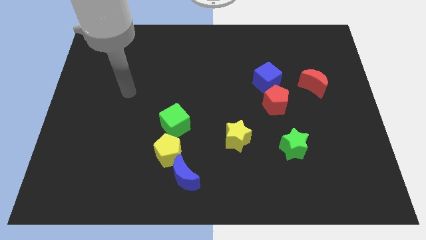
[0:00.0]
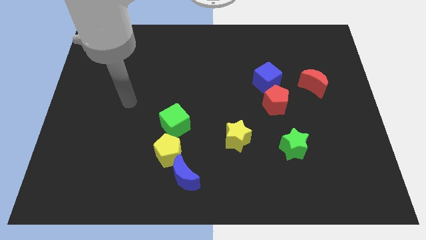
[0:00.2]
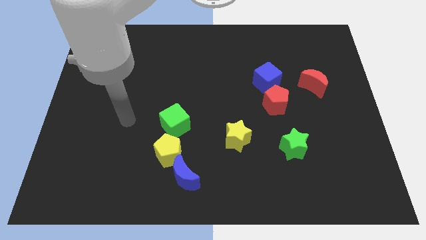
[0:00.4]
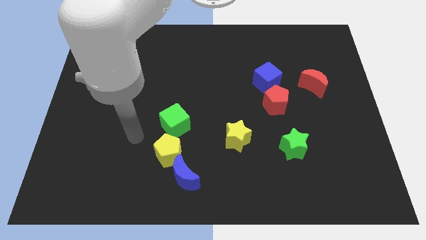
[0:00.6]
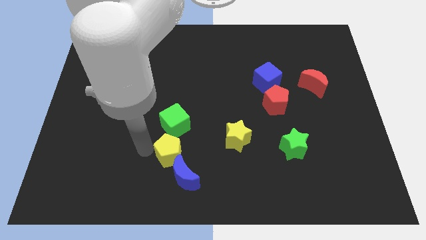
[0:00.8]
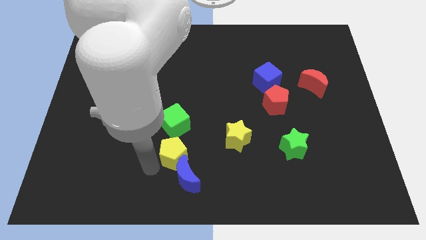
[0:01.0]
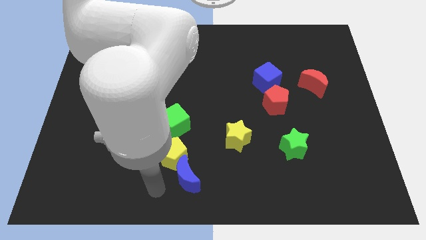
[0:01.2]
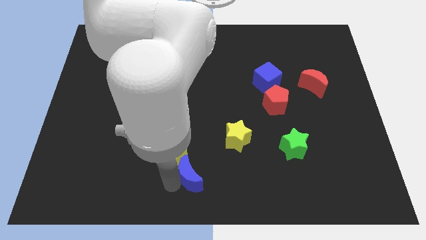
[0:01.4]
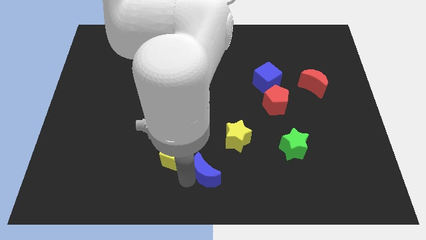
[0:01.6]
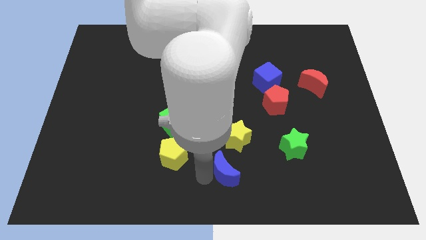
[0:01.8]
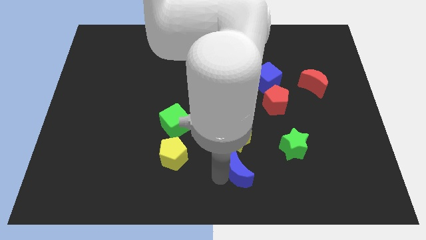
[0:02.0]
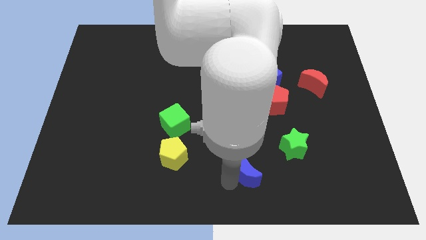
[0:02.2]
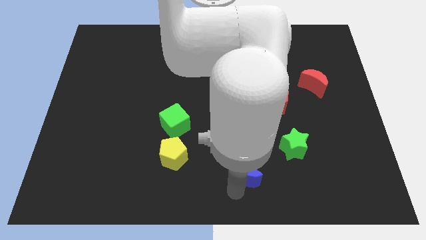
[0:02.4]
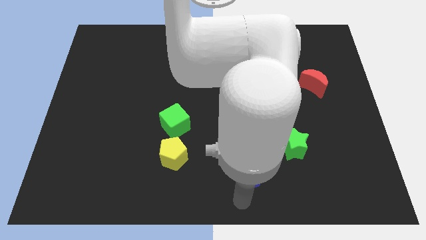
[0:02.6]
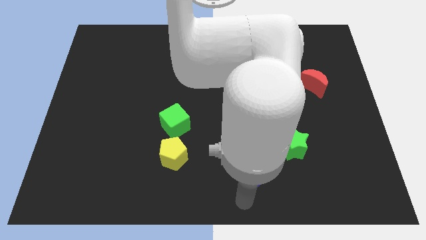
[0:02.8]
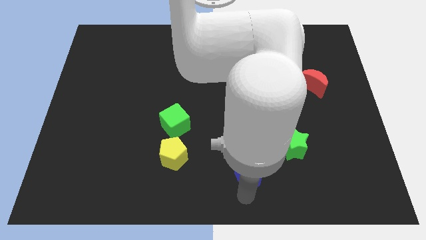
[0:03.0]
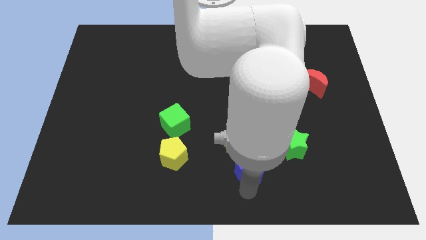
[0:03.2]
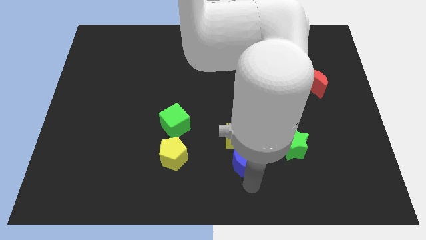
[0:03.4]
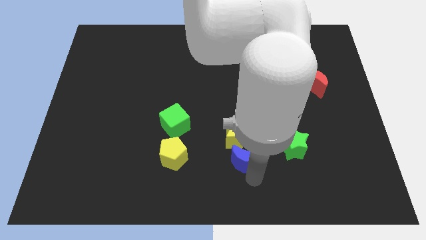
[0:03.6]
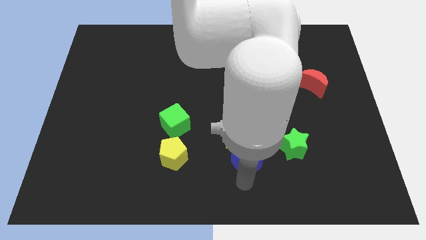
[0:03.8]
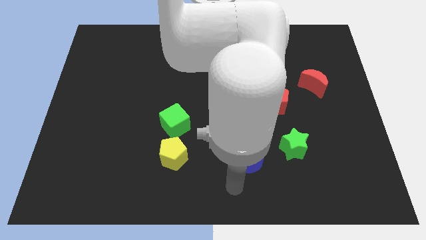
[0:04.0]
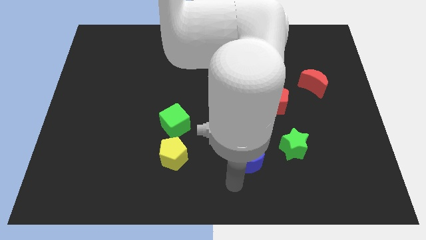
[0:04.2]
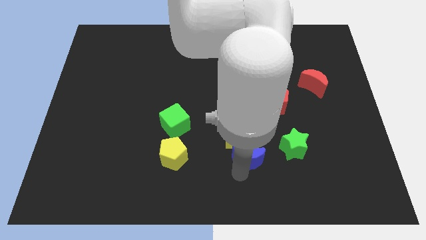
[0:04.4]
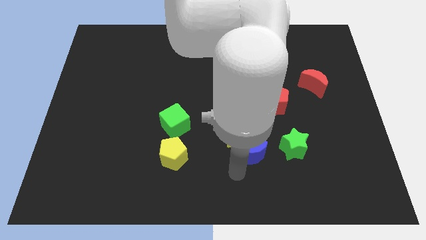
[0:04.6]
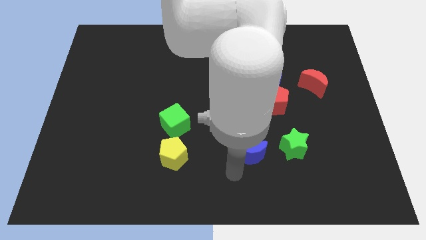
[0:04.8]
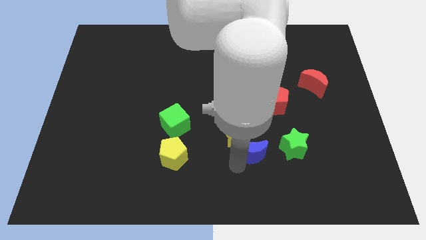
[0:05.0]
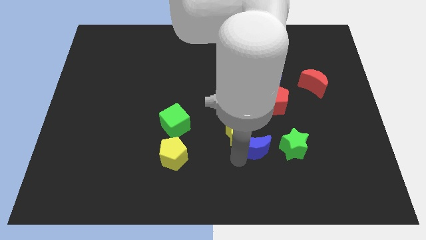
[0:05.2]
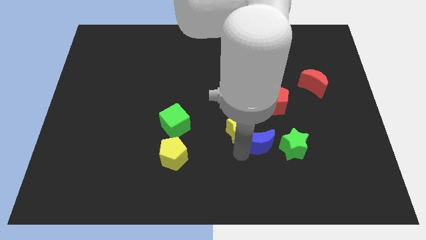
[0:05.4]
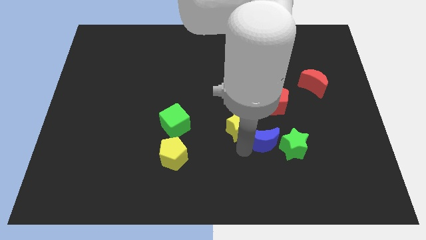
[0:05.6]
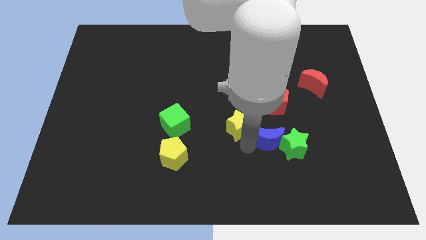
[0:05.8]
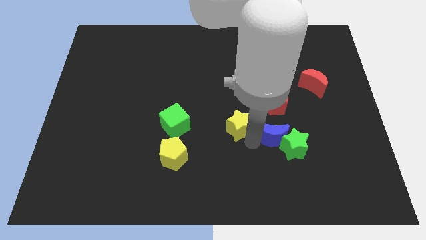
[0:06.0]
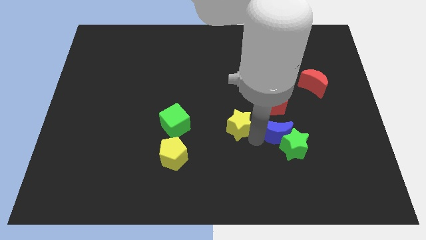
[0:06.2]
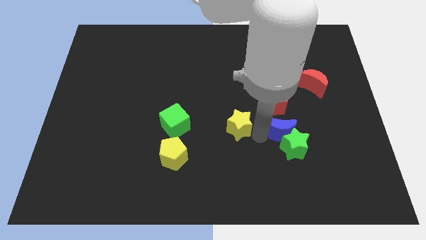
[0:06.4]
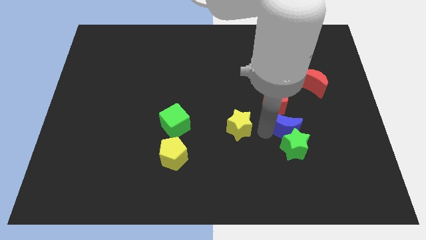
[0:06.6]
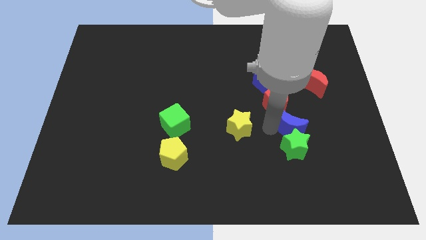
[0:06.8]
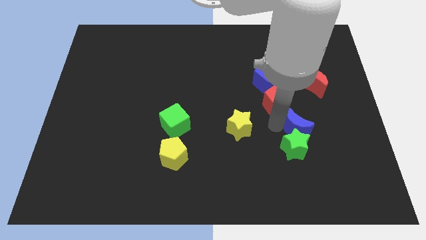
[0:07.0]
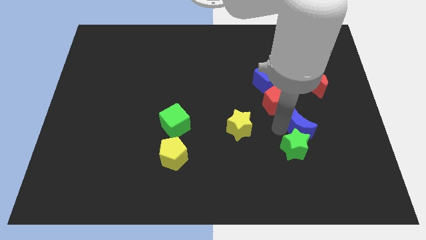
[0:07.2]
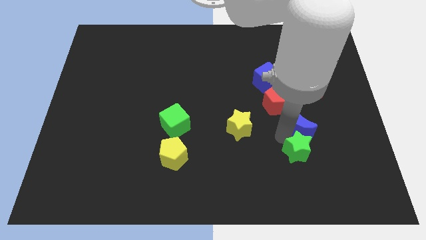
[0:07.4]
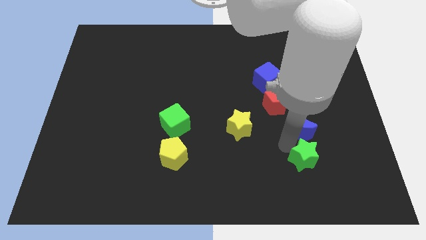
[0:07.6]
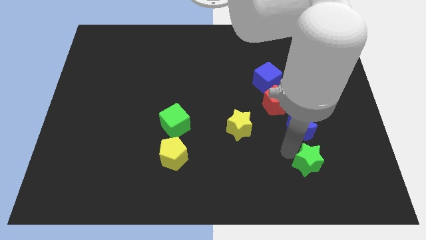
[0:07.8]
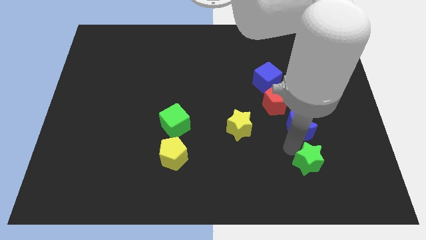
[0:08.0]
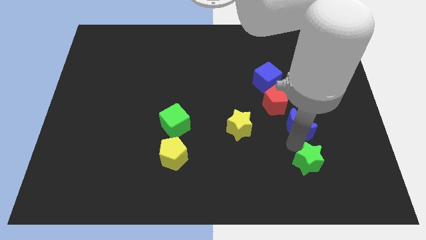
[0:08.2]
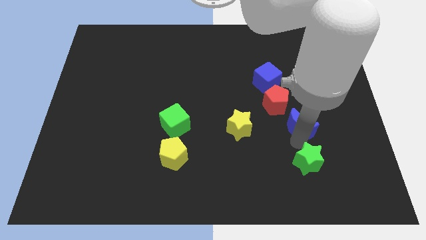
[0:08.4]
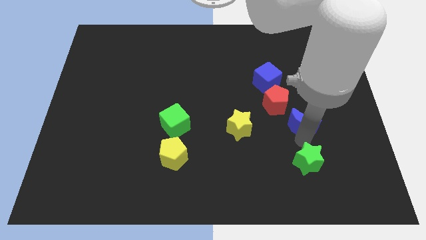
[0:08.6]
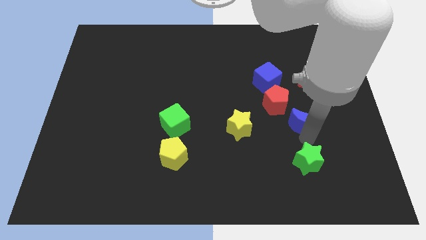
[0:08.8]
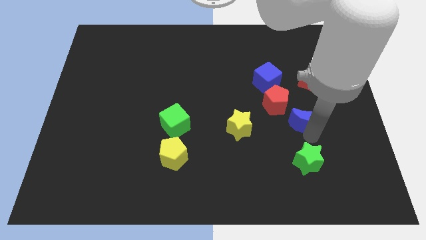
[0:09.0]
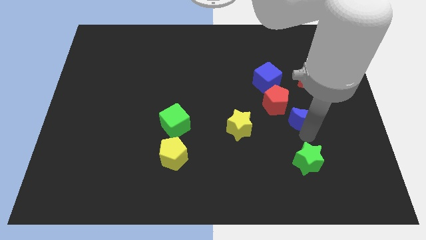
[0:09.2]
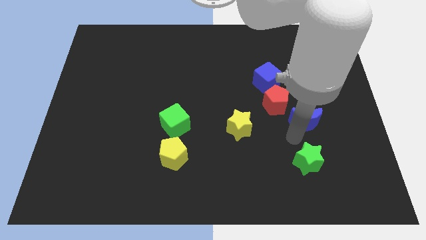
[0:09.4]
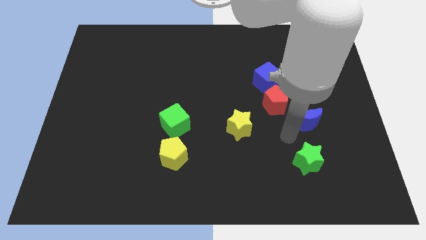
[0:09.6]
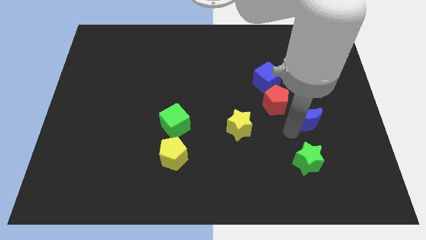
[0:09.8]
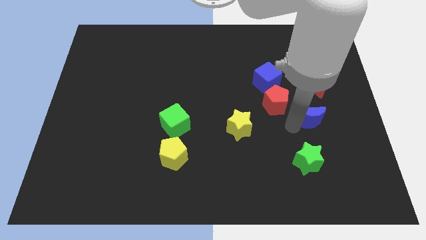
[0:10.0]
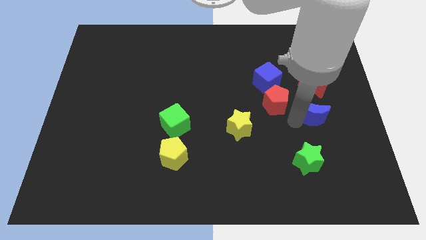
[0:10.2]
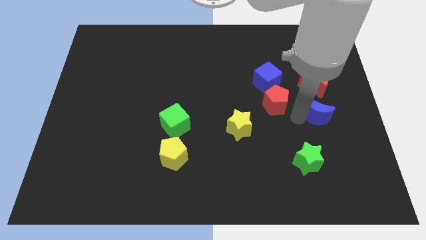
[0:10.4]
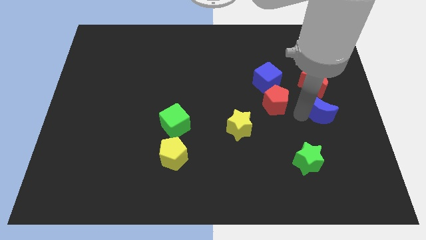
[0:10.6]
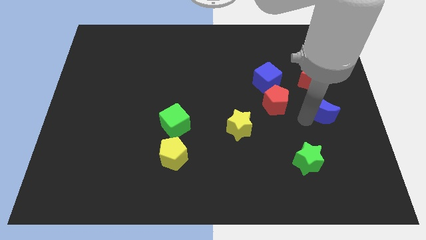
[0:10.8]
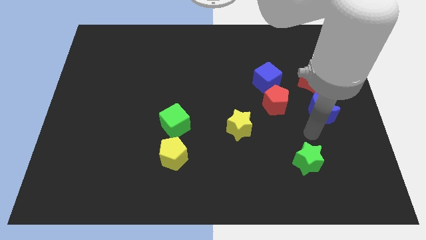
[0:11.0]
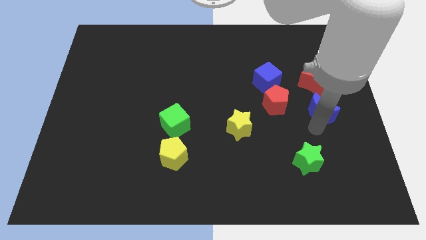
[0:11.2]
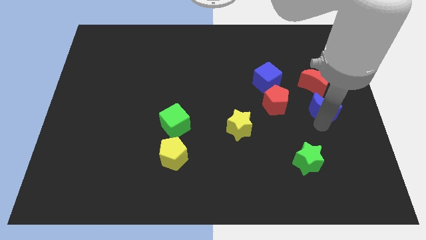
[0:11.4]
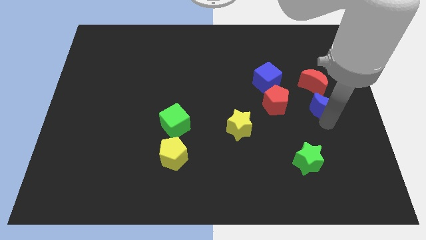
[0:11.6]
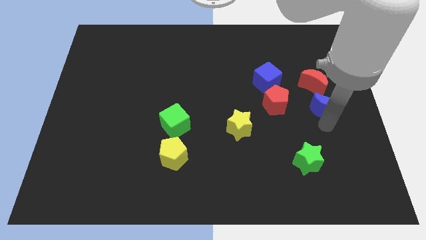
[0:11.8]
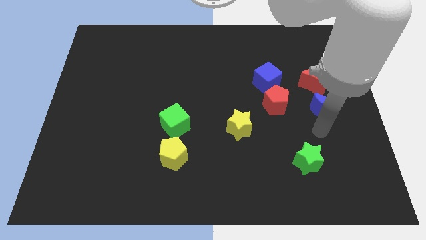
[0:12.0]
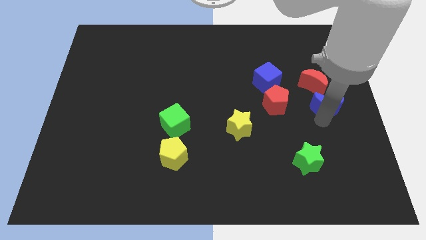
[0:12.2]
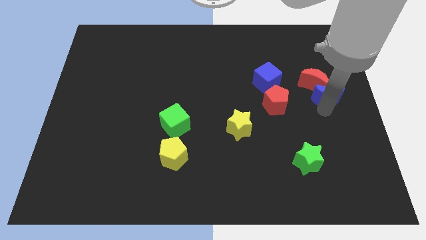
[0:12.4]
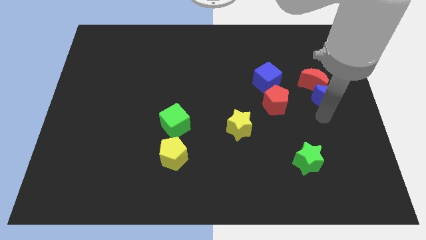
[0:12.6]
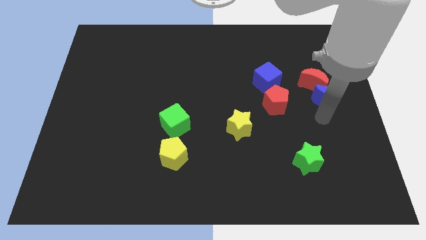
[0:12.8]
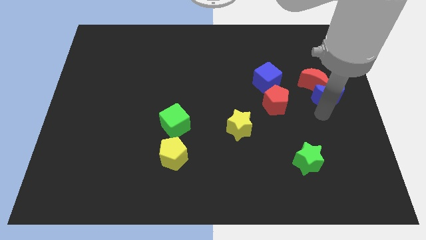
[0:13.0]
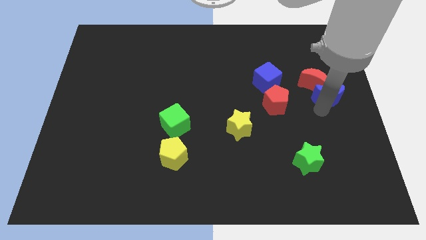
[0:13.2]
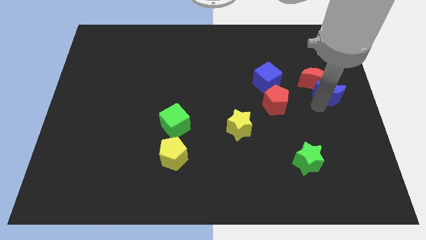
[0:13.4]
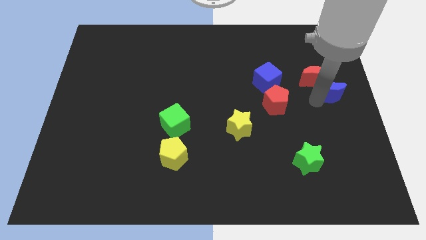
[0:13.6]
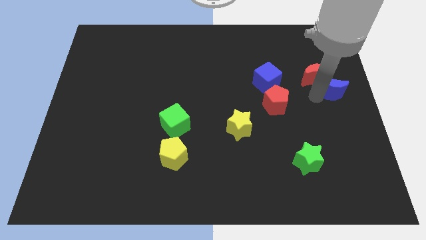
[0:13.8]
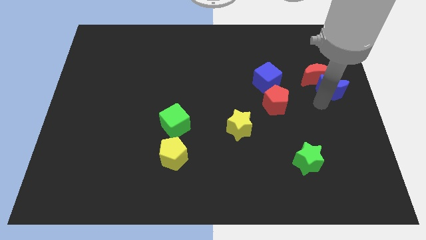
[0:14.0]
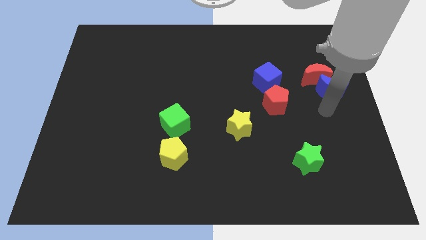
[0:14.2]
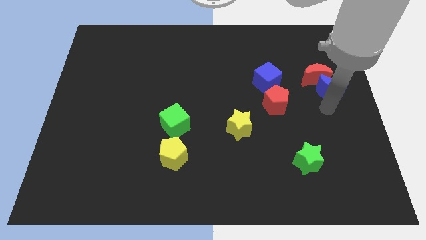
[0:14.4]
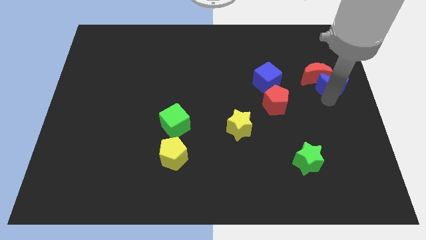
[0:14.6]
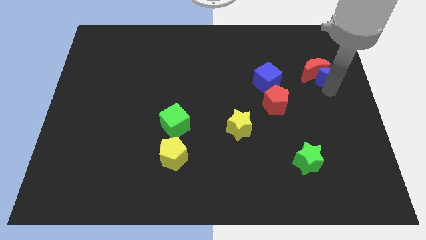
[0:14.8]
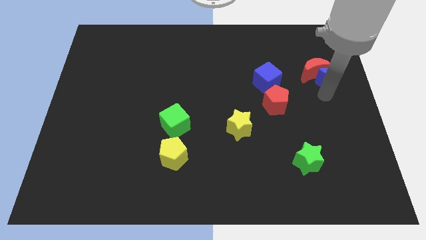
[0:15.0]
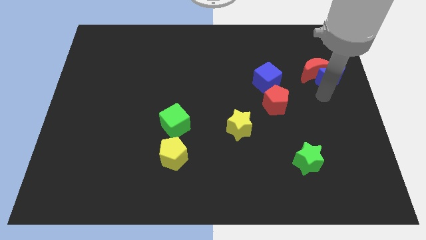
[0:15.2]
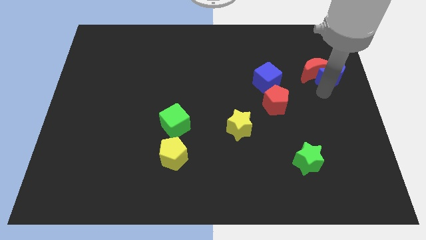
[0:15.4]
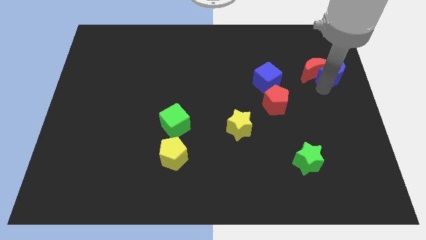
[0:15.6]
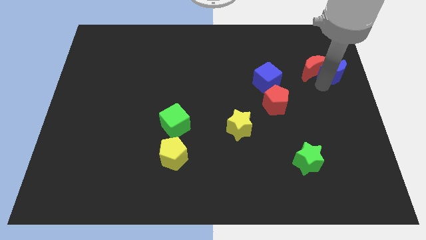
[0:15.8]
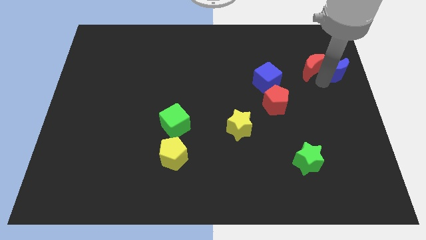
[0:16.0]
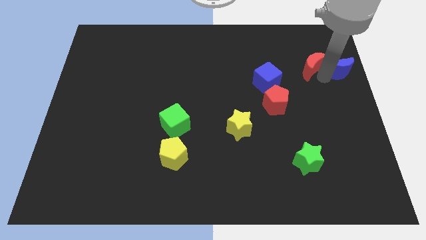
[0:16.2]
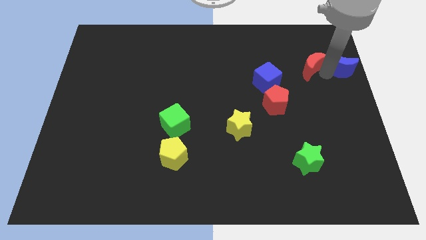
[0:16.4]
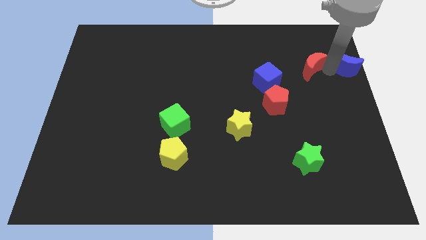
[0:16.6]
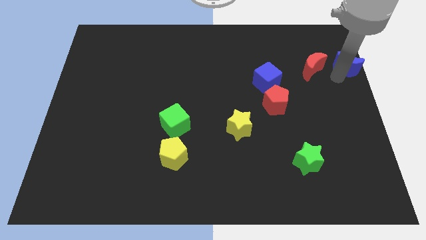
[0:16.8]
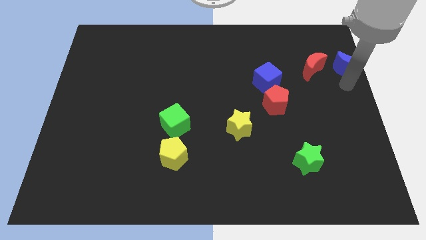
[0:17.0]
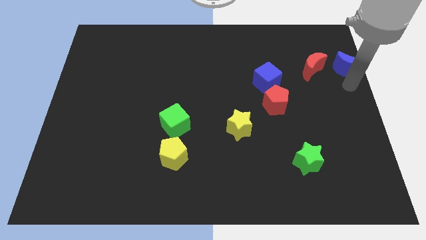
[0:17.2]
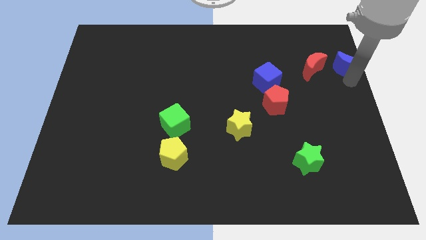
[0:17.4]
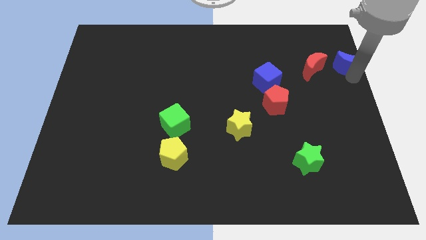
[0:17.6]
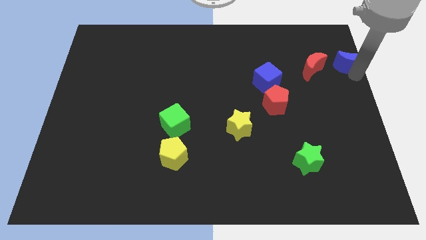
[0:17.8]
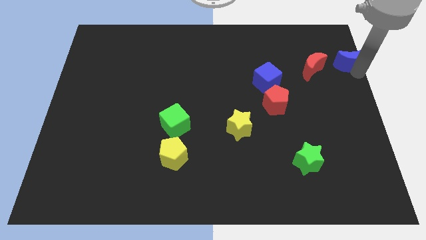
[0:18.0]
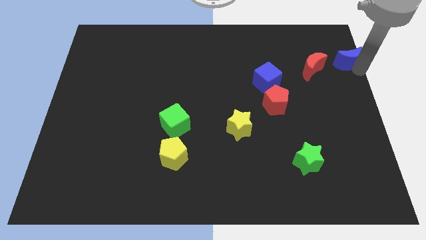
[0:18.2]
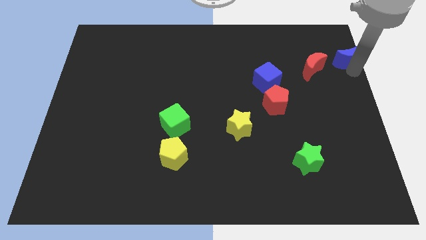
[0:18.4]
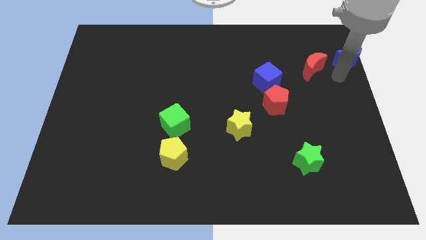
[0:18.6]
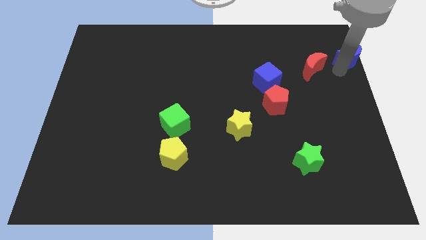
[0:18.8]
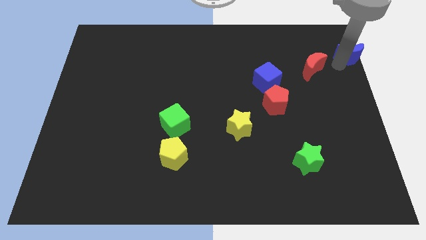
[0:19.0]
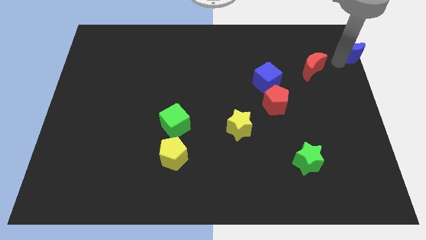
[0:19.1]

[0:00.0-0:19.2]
move the blue moon to the upper right corner
